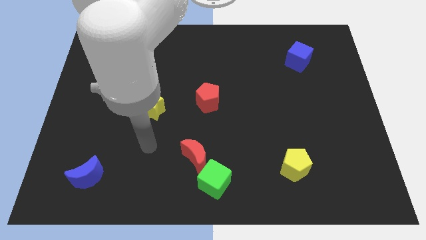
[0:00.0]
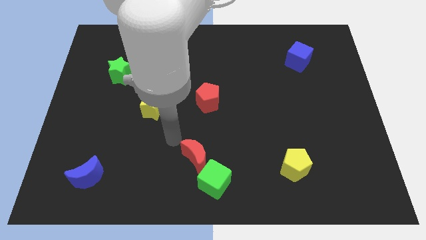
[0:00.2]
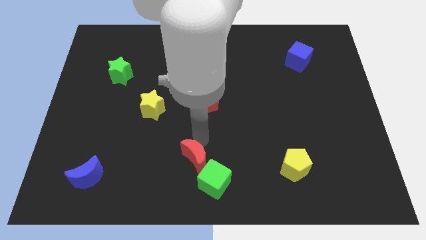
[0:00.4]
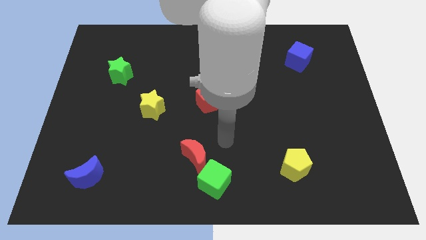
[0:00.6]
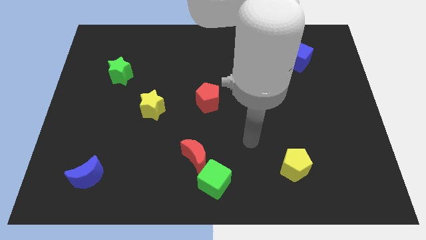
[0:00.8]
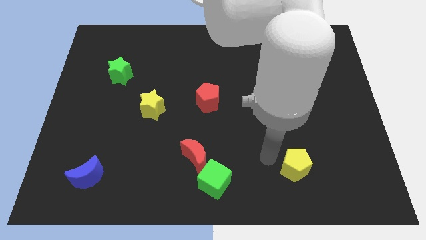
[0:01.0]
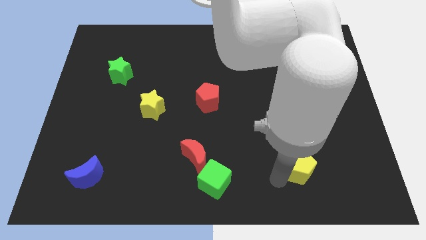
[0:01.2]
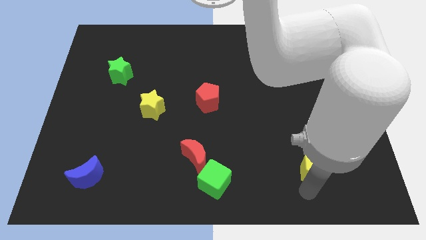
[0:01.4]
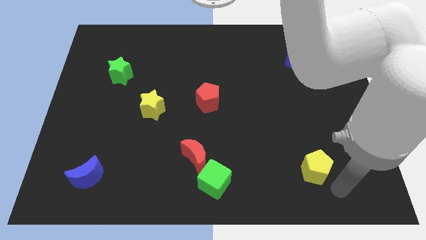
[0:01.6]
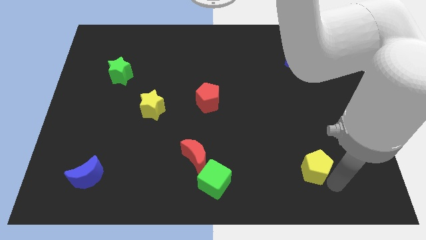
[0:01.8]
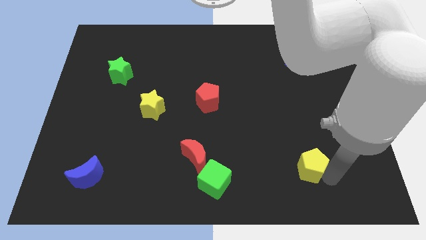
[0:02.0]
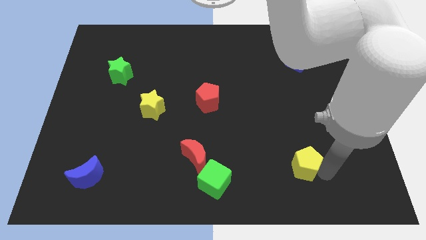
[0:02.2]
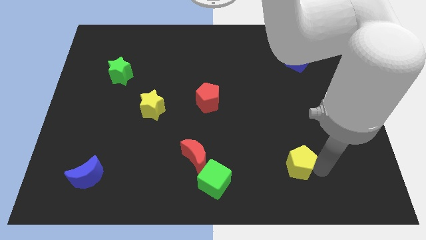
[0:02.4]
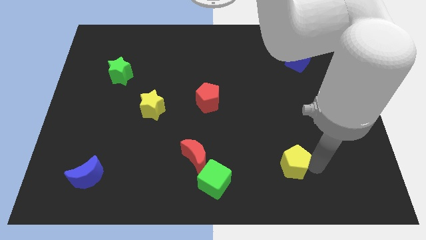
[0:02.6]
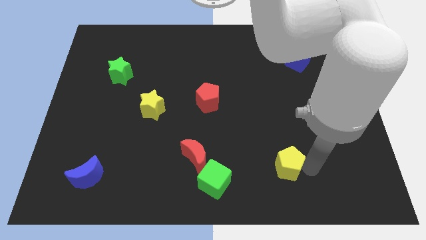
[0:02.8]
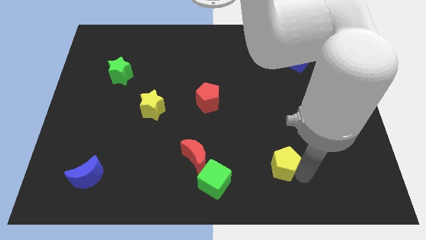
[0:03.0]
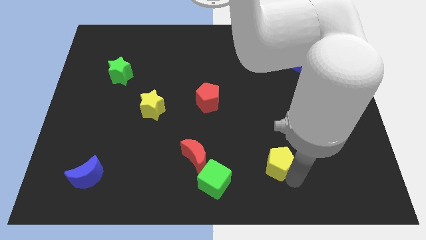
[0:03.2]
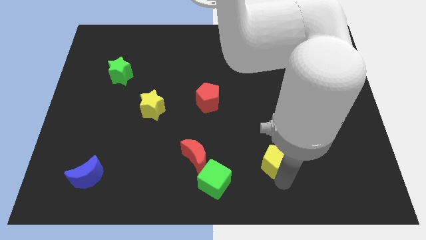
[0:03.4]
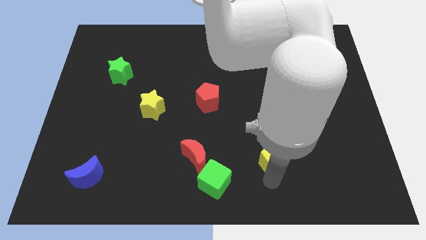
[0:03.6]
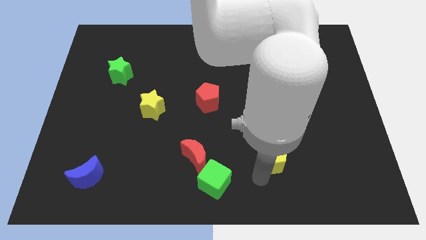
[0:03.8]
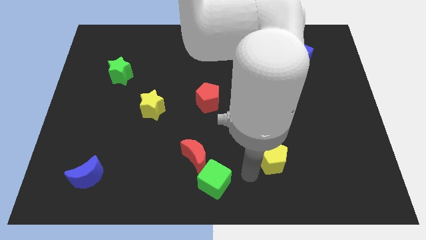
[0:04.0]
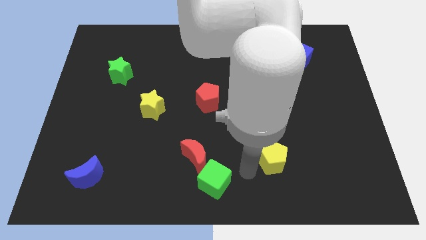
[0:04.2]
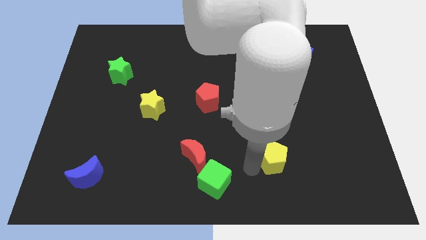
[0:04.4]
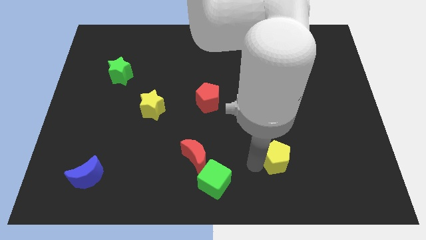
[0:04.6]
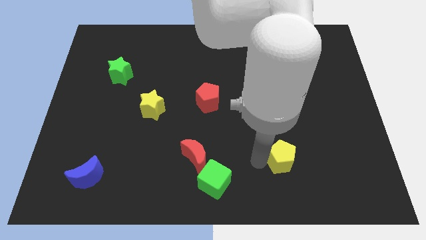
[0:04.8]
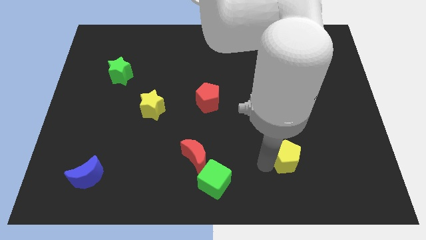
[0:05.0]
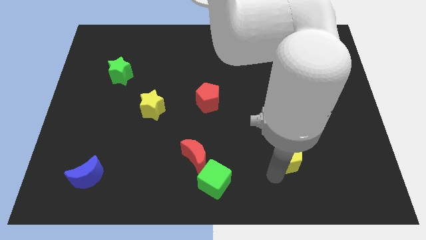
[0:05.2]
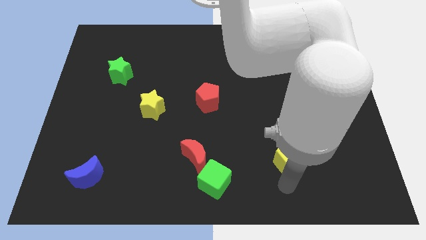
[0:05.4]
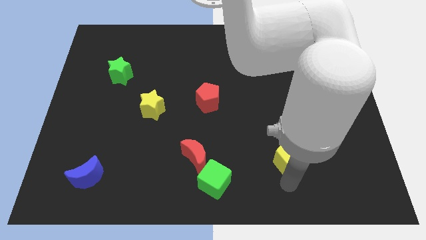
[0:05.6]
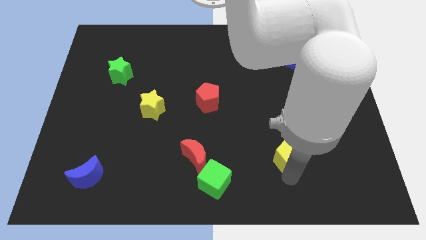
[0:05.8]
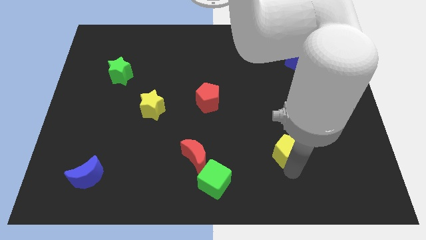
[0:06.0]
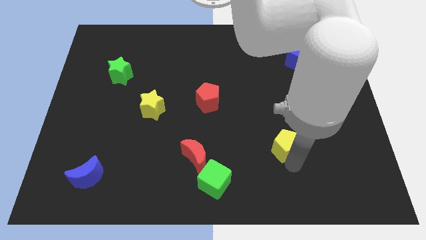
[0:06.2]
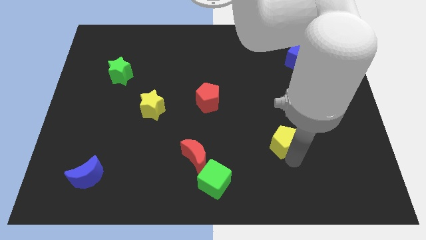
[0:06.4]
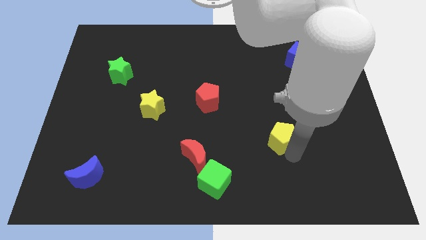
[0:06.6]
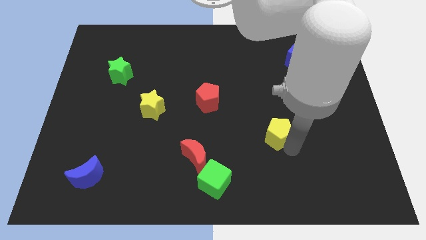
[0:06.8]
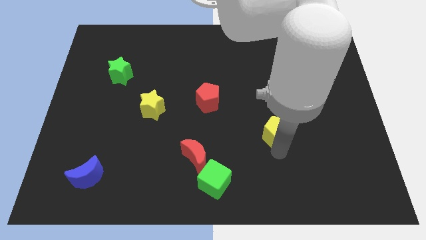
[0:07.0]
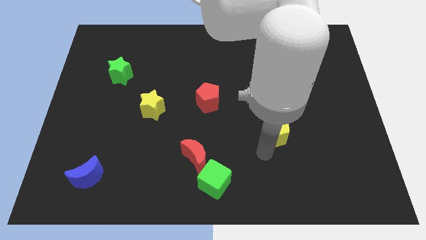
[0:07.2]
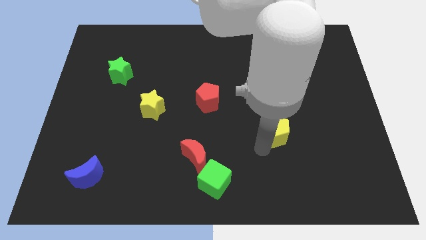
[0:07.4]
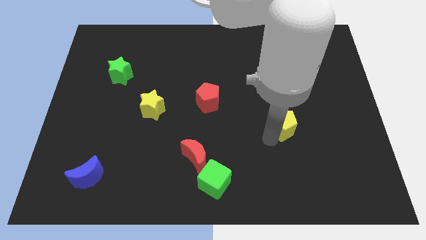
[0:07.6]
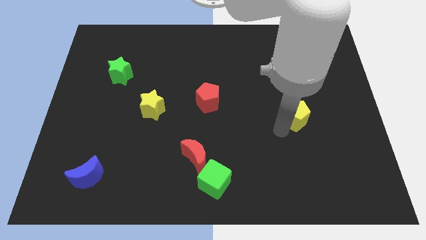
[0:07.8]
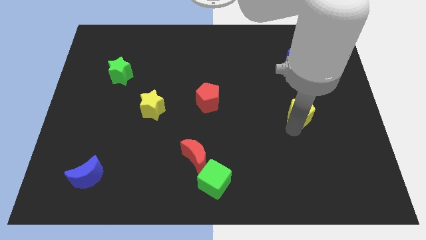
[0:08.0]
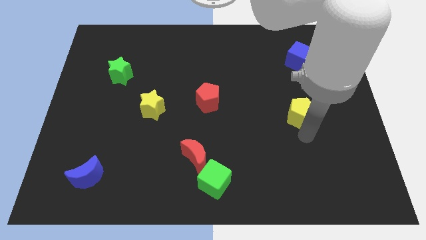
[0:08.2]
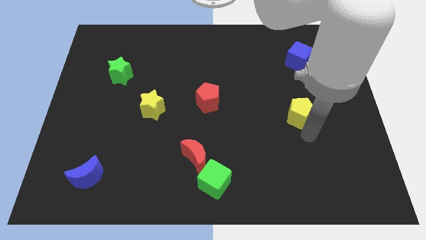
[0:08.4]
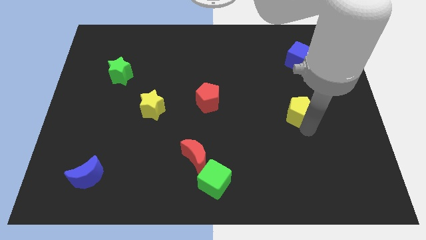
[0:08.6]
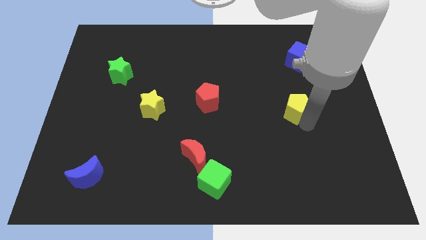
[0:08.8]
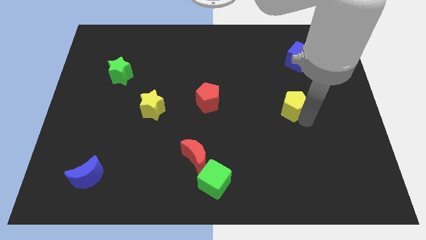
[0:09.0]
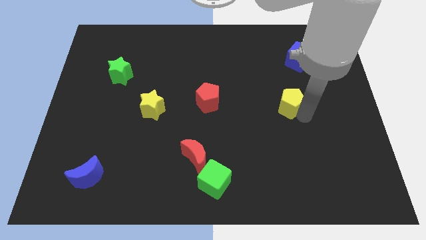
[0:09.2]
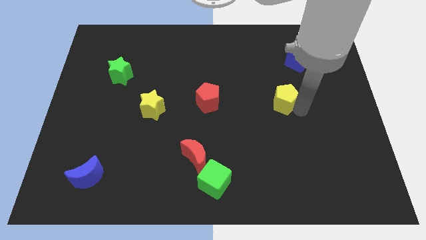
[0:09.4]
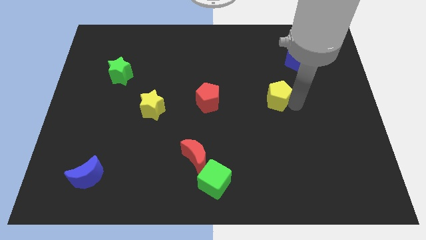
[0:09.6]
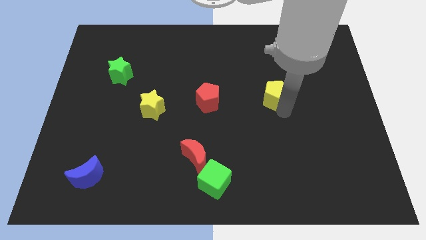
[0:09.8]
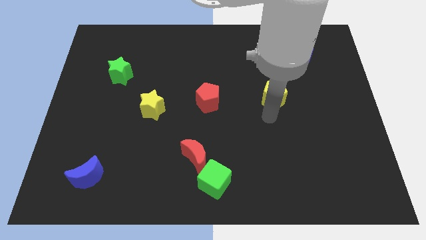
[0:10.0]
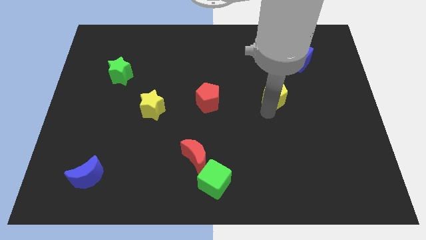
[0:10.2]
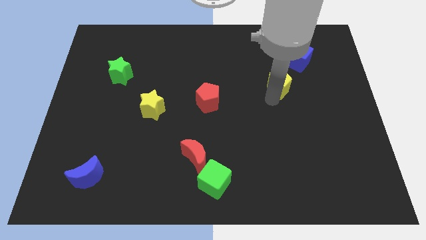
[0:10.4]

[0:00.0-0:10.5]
put the yellow pentagon to the bottom left side of the blue cube

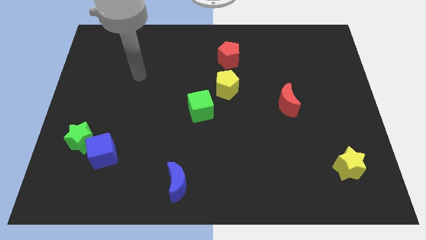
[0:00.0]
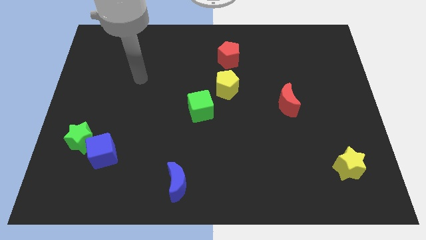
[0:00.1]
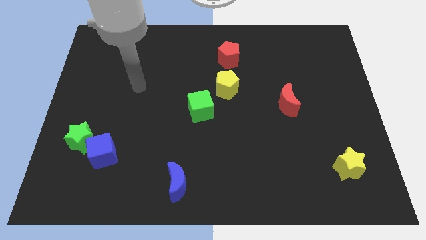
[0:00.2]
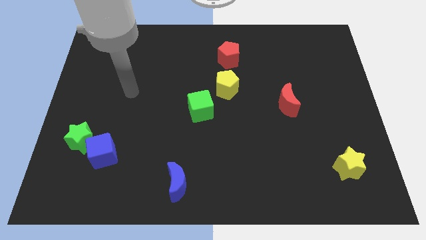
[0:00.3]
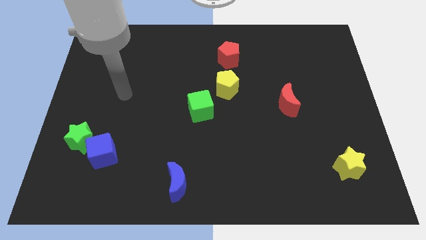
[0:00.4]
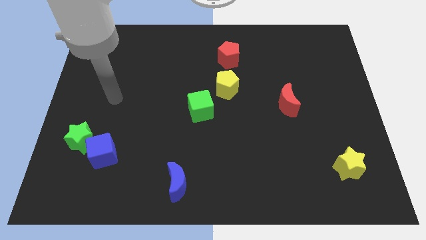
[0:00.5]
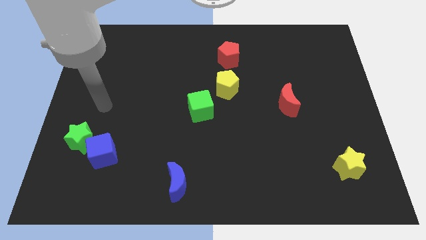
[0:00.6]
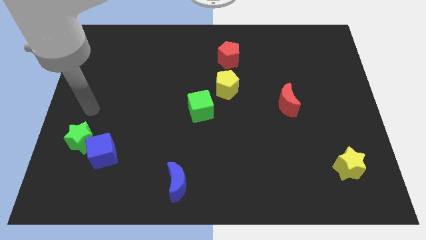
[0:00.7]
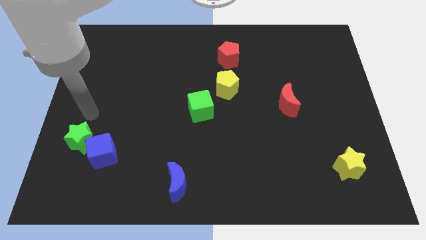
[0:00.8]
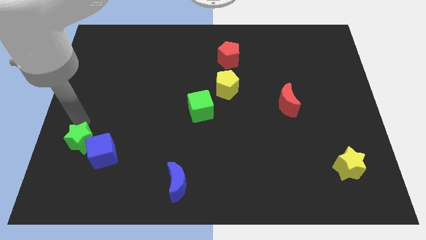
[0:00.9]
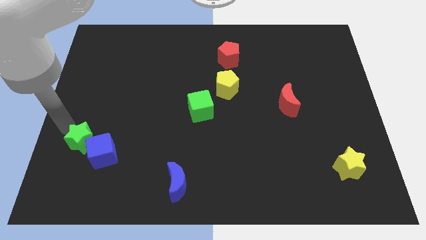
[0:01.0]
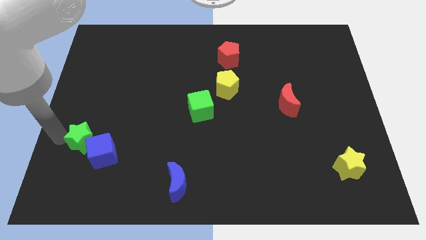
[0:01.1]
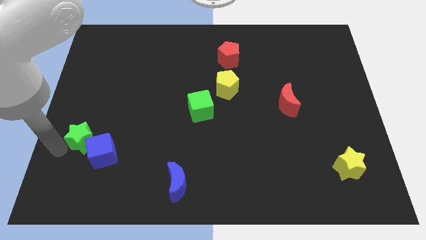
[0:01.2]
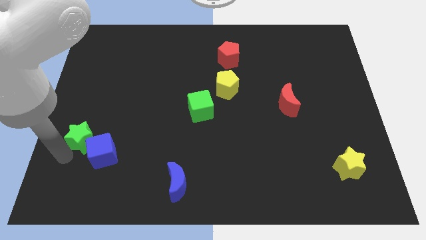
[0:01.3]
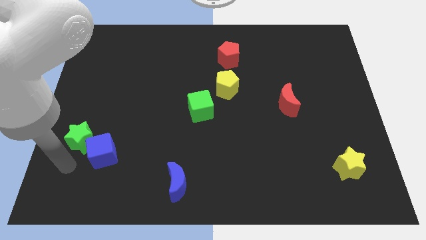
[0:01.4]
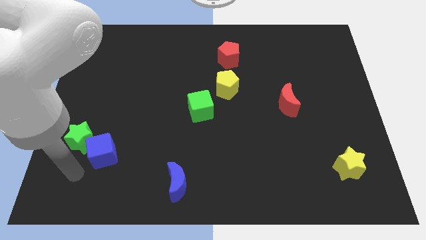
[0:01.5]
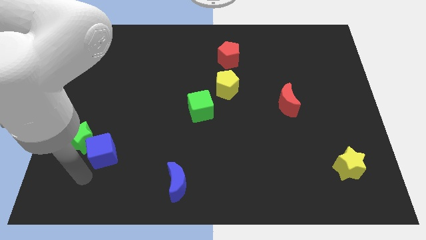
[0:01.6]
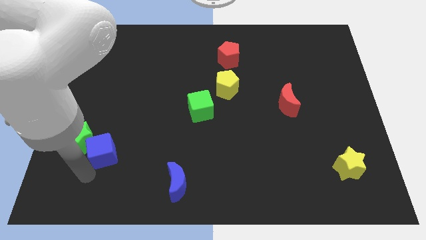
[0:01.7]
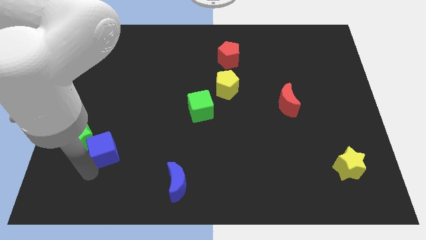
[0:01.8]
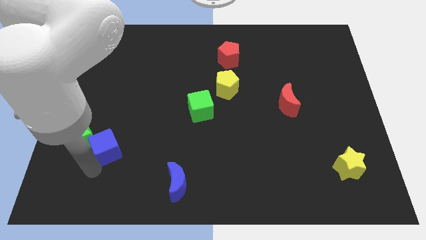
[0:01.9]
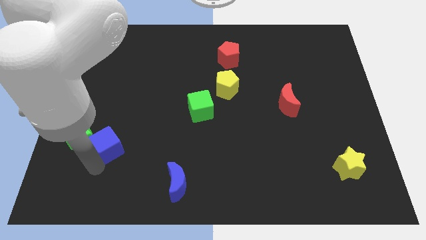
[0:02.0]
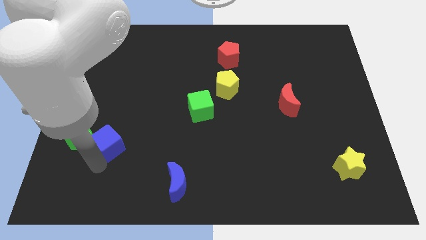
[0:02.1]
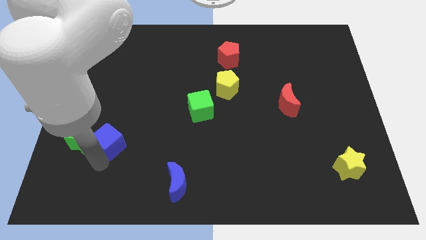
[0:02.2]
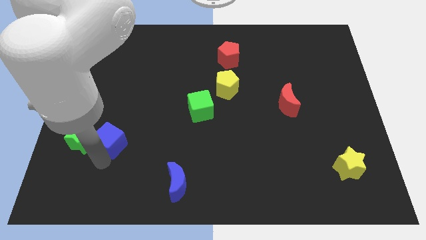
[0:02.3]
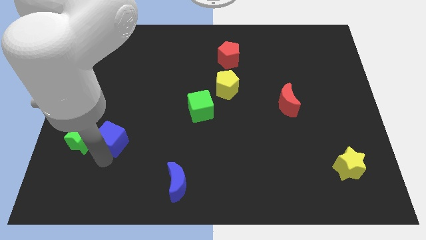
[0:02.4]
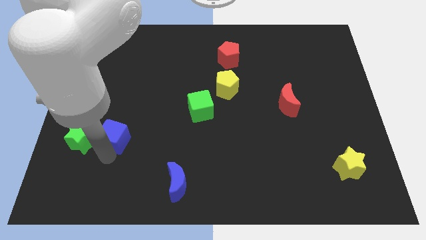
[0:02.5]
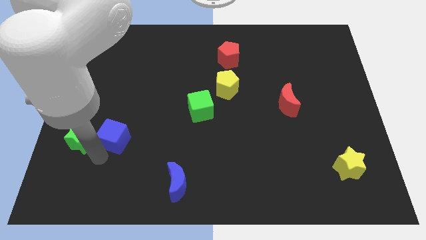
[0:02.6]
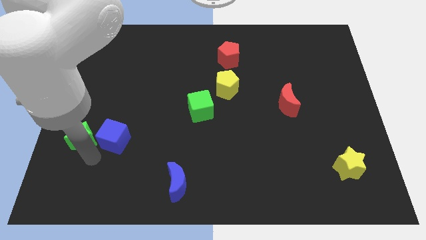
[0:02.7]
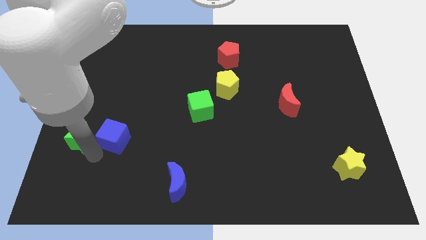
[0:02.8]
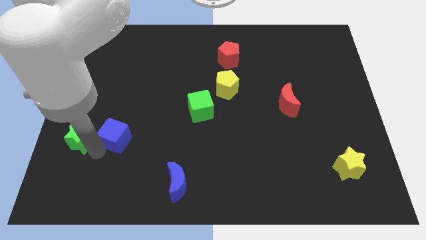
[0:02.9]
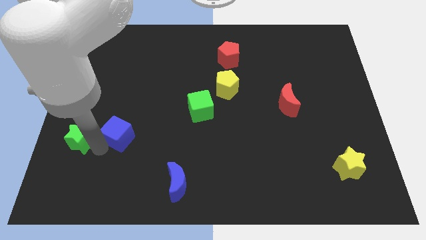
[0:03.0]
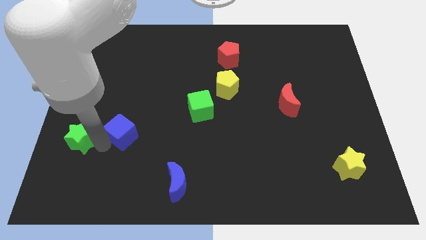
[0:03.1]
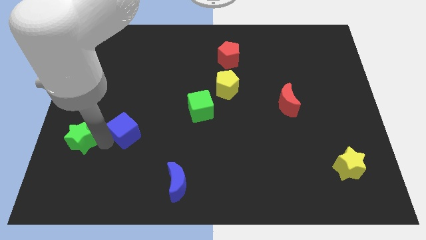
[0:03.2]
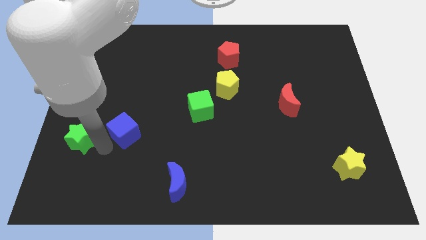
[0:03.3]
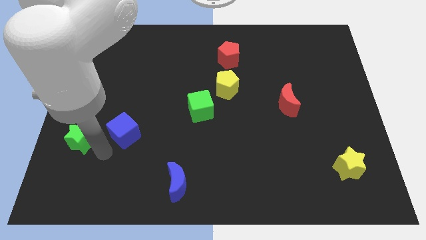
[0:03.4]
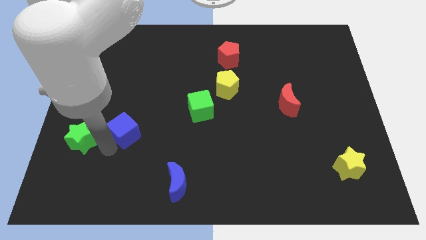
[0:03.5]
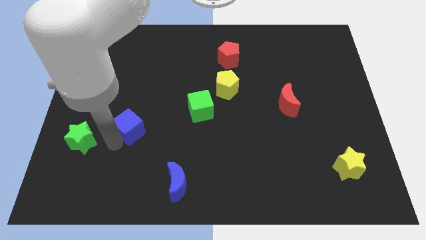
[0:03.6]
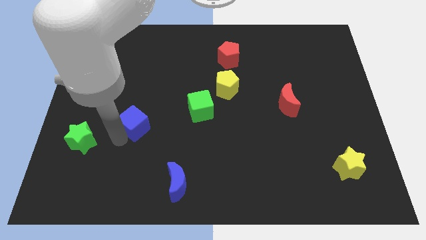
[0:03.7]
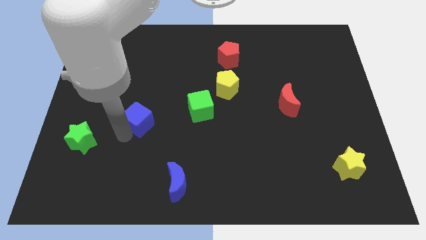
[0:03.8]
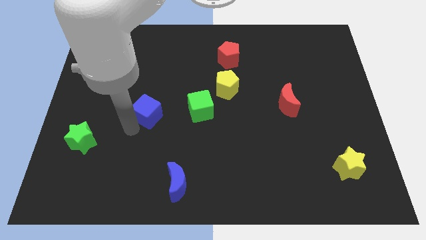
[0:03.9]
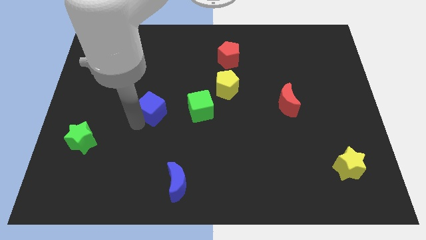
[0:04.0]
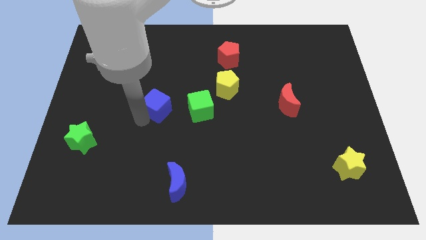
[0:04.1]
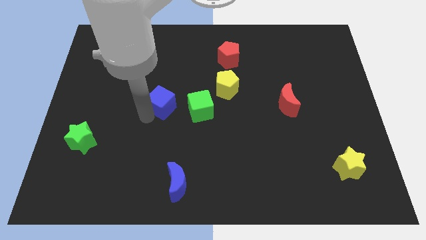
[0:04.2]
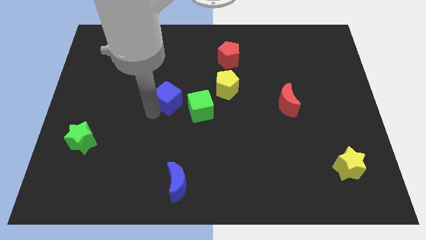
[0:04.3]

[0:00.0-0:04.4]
put the blue cube to the left side of the yellow pentagon
